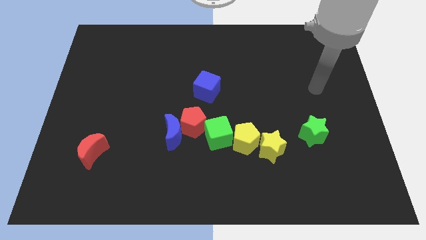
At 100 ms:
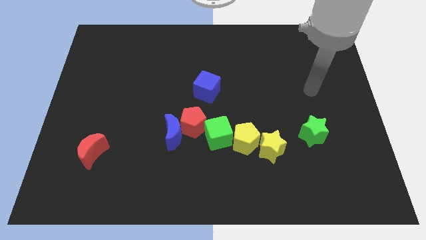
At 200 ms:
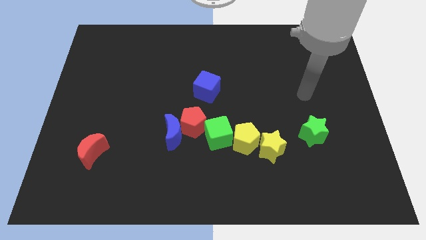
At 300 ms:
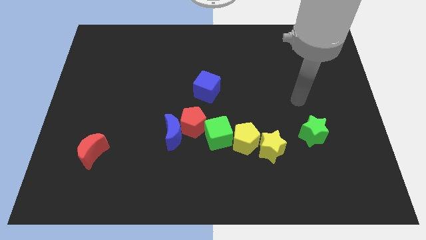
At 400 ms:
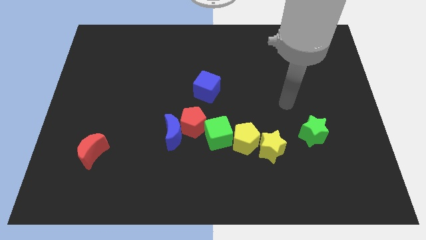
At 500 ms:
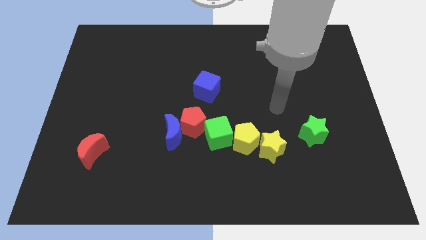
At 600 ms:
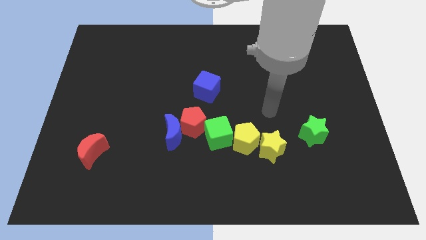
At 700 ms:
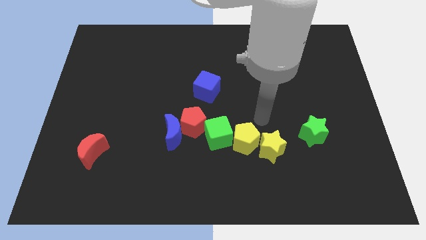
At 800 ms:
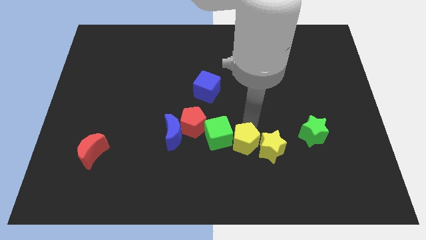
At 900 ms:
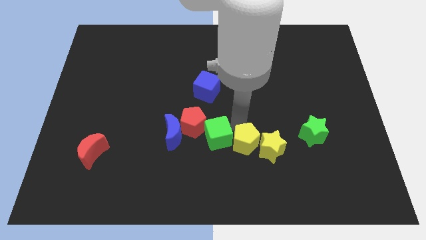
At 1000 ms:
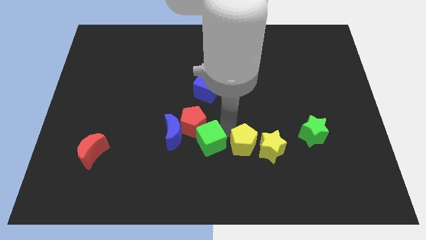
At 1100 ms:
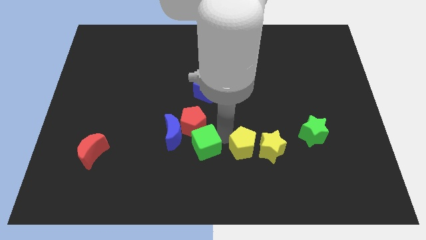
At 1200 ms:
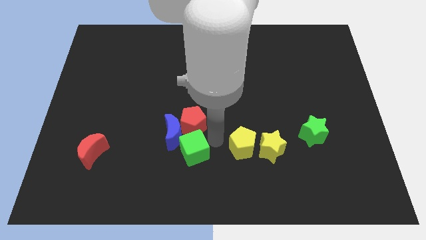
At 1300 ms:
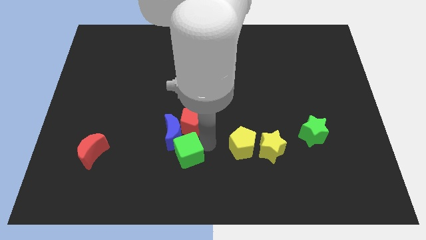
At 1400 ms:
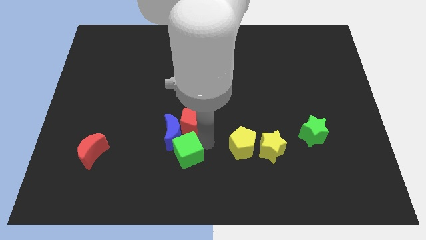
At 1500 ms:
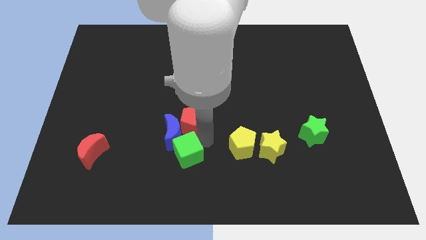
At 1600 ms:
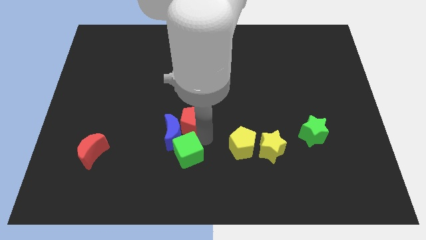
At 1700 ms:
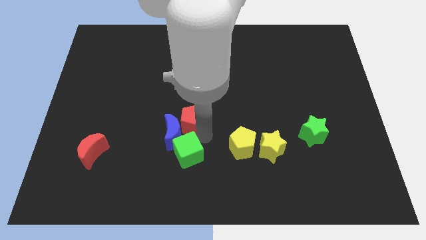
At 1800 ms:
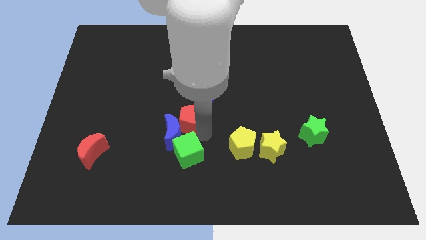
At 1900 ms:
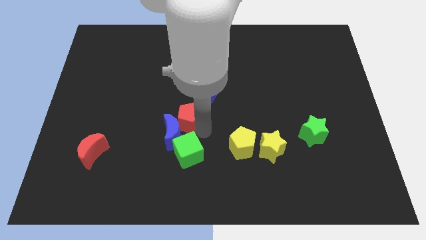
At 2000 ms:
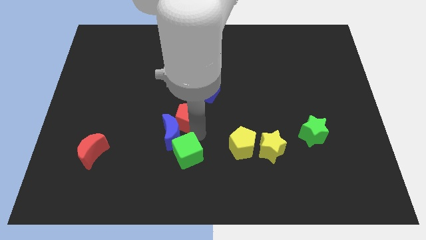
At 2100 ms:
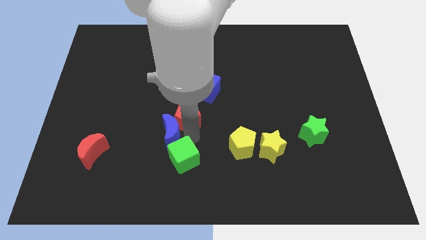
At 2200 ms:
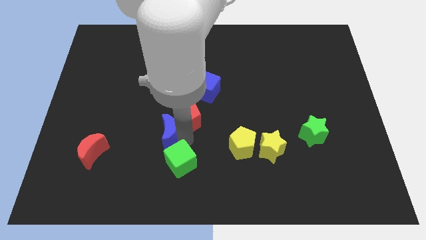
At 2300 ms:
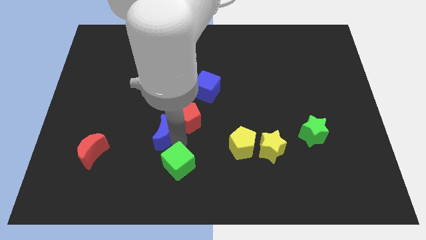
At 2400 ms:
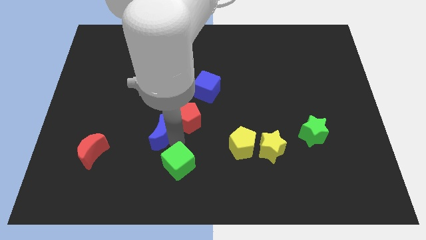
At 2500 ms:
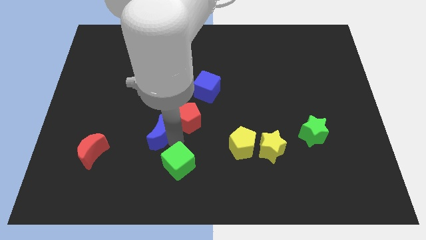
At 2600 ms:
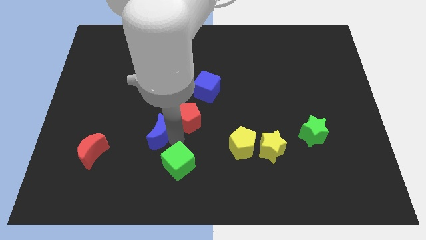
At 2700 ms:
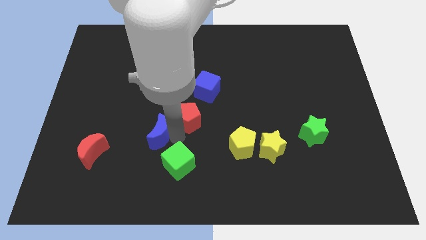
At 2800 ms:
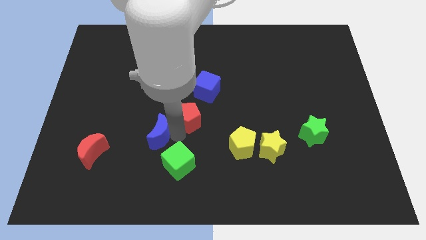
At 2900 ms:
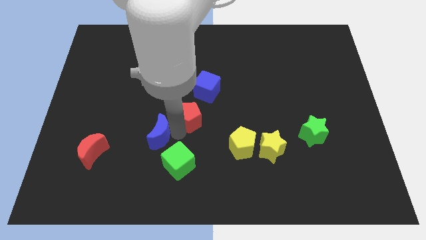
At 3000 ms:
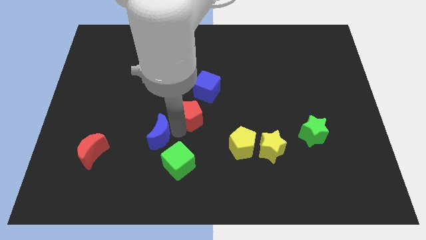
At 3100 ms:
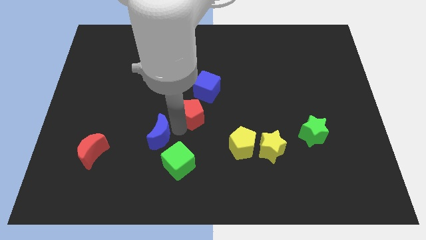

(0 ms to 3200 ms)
pull the red pentagon apart from the blue moon and green cube

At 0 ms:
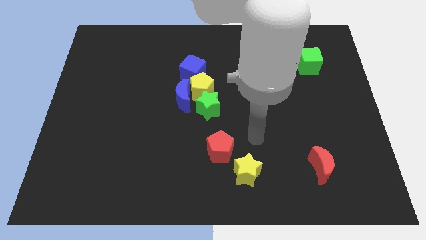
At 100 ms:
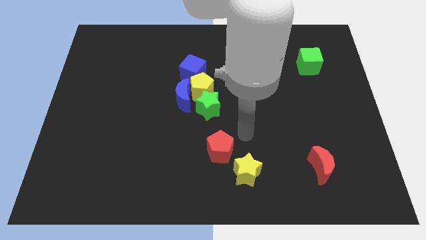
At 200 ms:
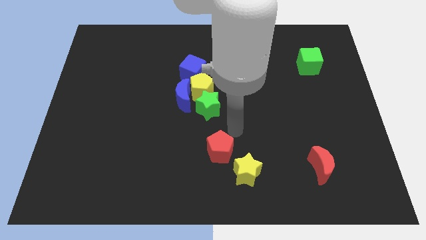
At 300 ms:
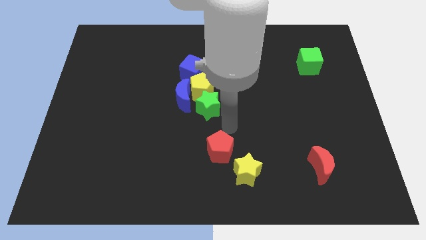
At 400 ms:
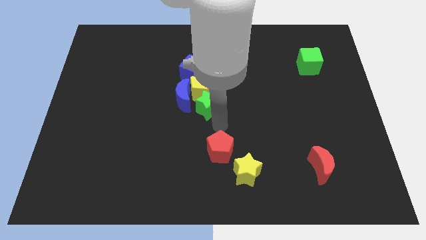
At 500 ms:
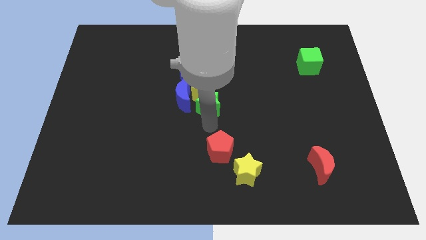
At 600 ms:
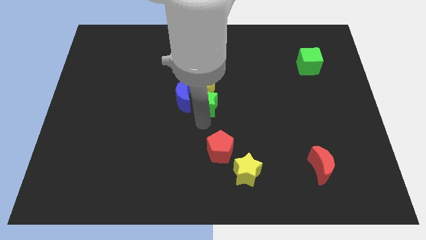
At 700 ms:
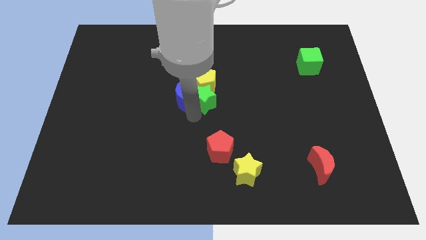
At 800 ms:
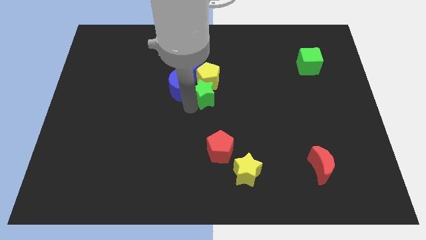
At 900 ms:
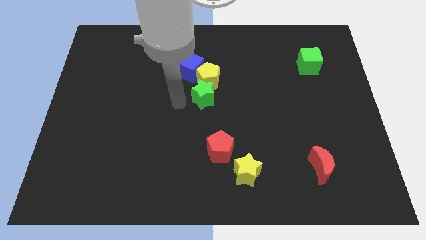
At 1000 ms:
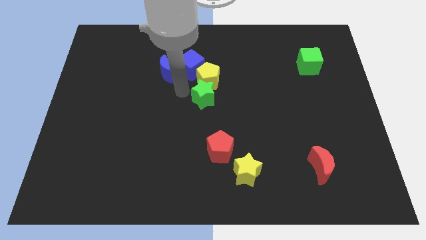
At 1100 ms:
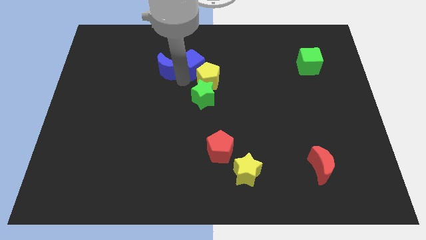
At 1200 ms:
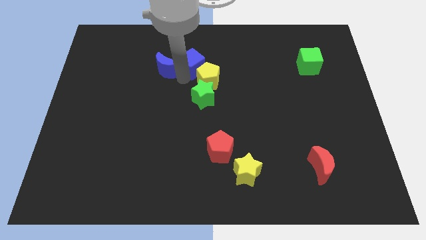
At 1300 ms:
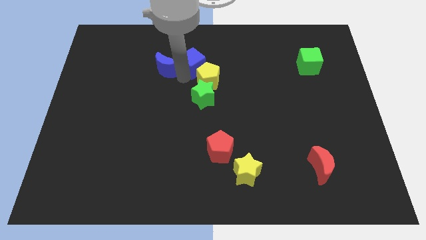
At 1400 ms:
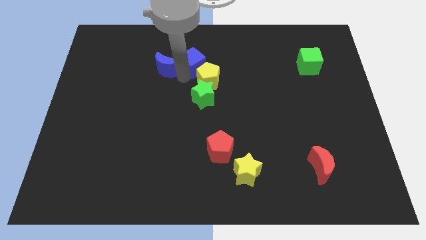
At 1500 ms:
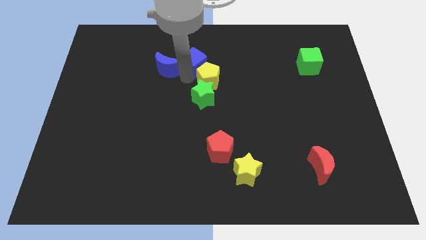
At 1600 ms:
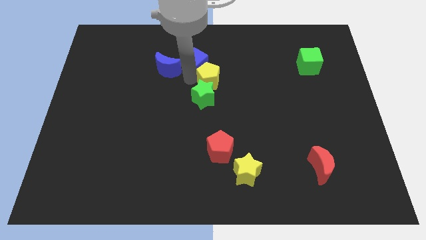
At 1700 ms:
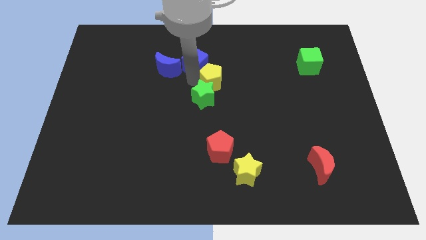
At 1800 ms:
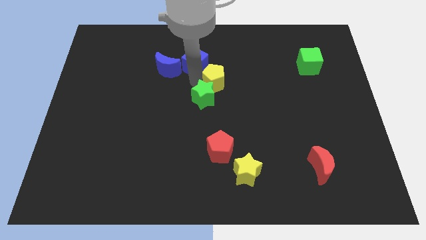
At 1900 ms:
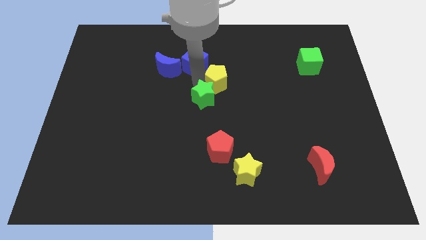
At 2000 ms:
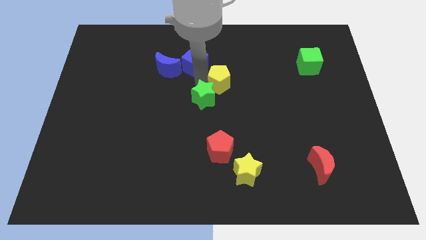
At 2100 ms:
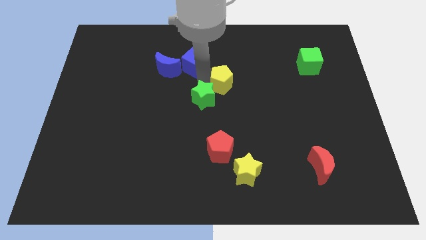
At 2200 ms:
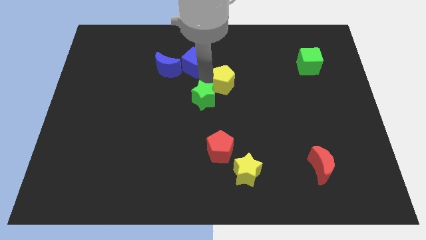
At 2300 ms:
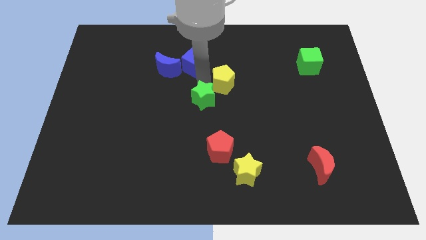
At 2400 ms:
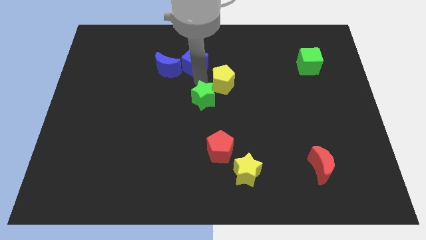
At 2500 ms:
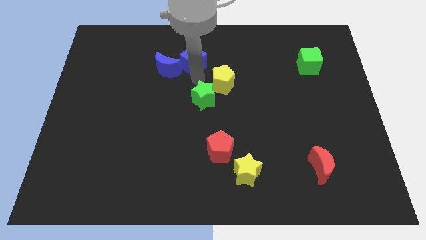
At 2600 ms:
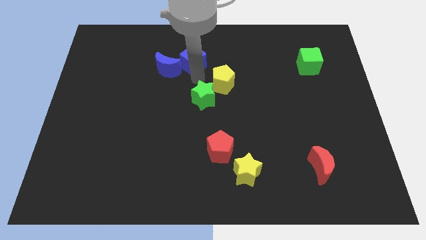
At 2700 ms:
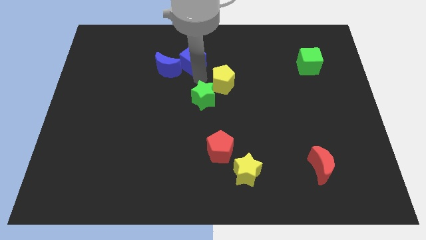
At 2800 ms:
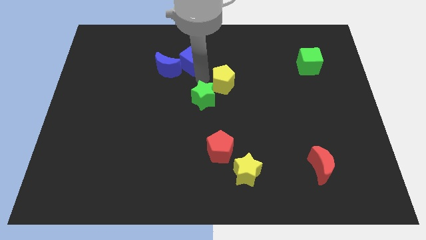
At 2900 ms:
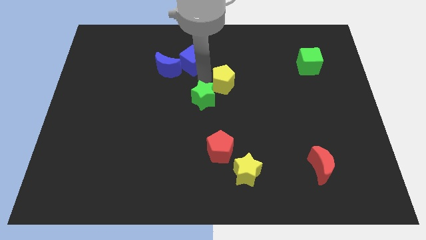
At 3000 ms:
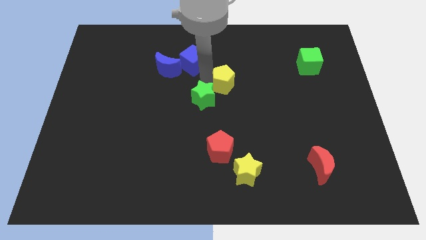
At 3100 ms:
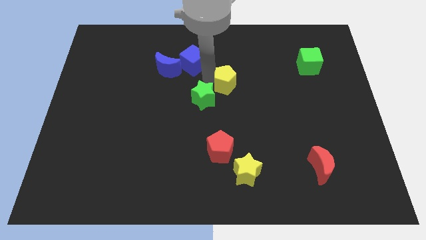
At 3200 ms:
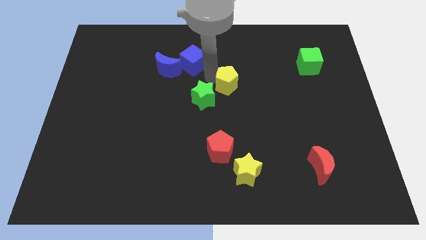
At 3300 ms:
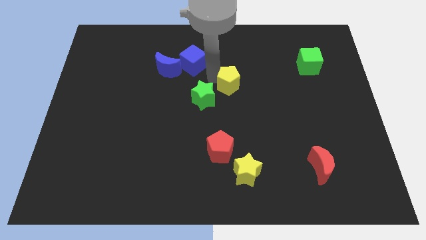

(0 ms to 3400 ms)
move the yellow pentagon away from the clump

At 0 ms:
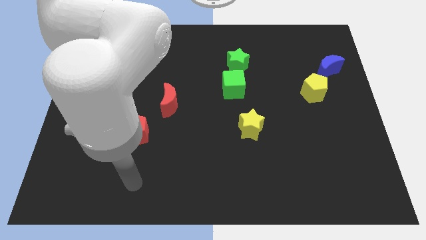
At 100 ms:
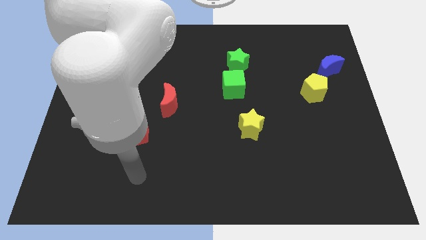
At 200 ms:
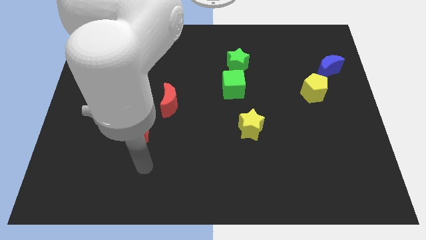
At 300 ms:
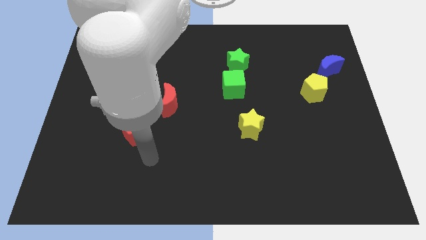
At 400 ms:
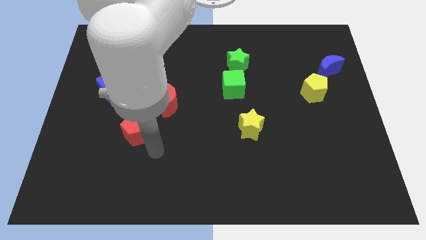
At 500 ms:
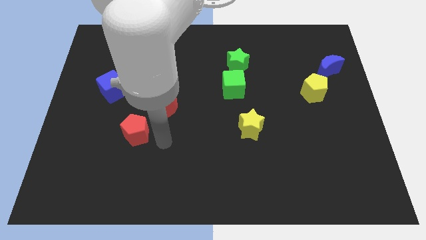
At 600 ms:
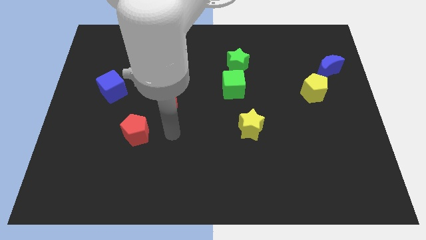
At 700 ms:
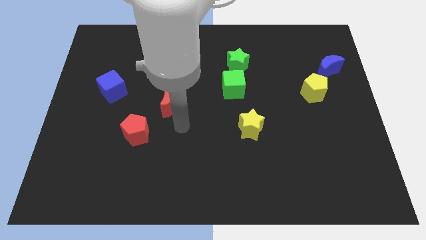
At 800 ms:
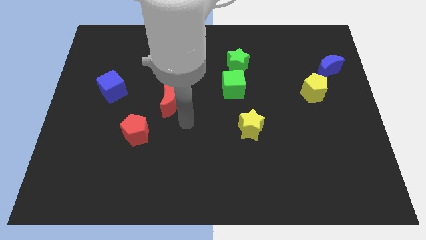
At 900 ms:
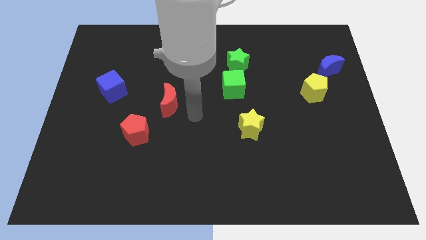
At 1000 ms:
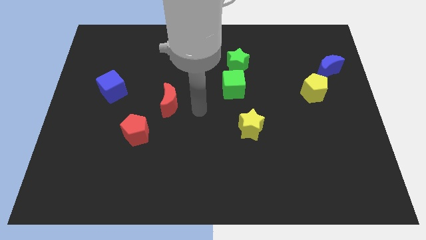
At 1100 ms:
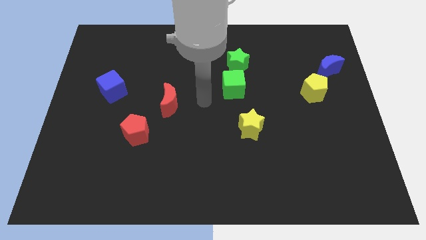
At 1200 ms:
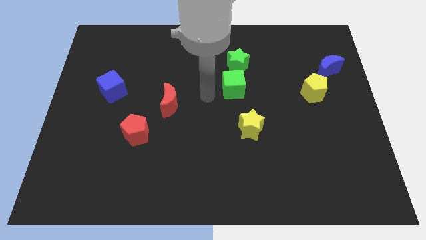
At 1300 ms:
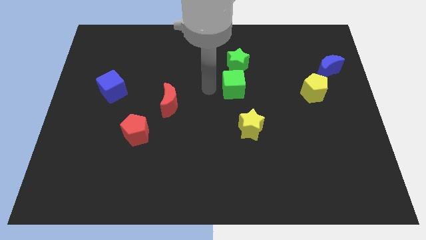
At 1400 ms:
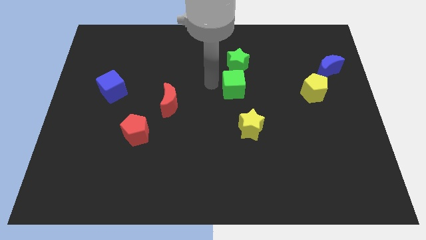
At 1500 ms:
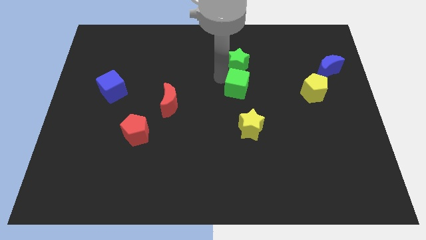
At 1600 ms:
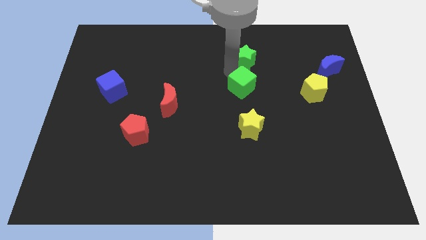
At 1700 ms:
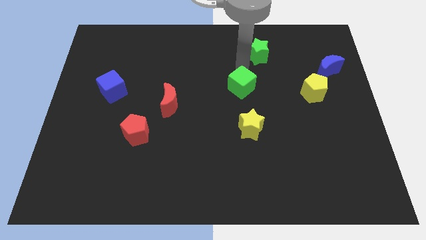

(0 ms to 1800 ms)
separate the green cube from the green star

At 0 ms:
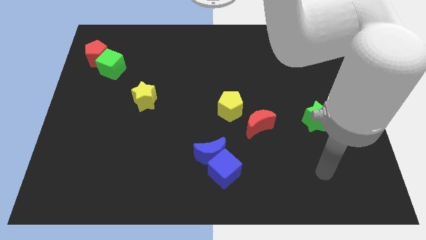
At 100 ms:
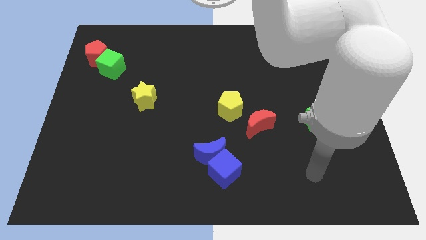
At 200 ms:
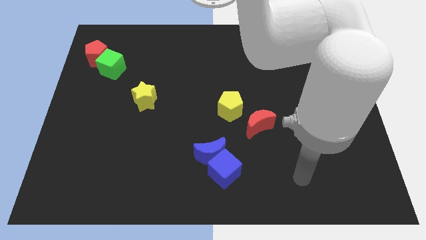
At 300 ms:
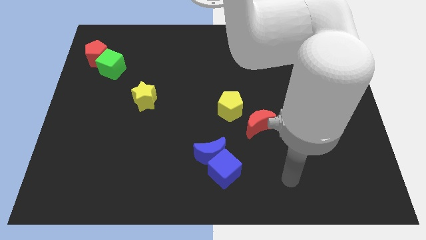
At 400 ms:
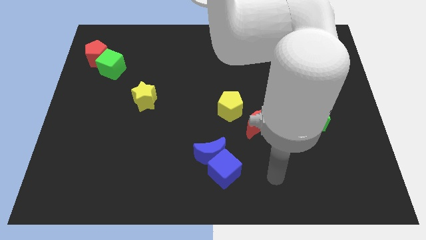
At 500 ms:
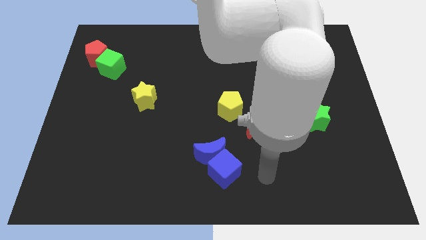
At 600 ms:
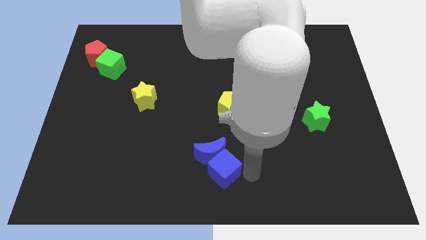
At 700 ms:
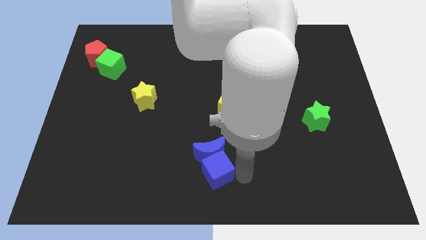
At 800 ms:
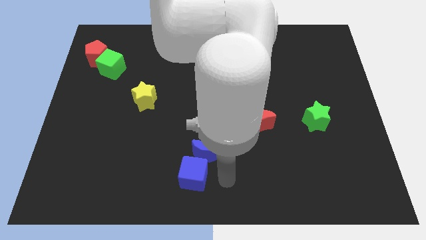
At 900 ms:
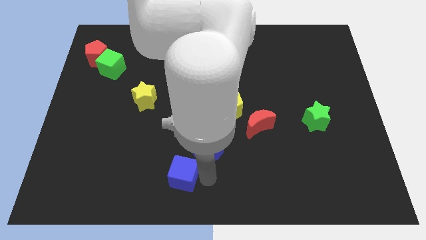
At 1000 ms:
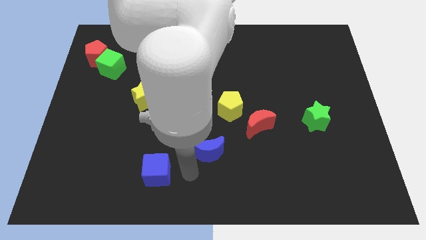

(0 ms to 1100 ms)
pull the blue moon apart from the blue cube
